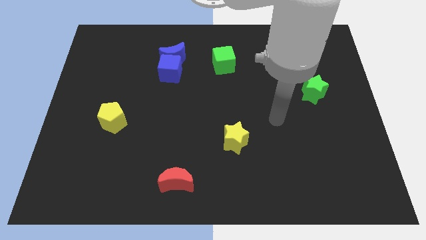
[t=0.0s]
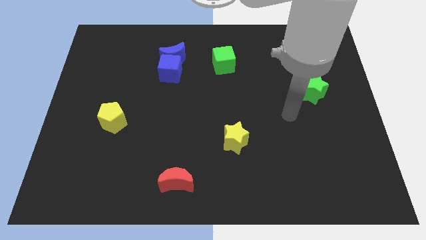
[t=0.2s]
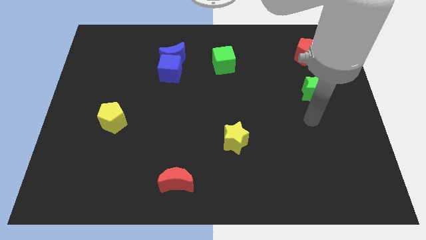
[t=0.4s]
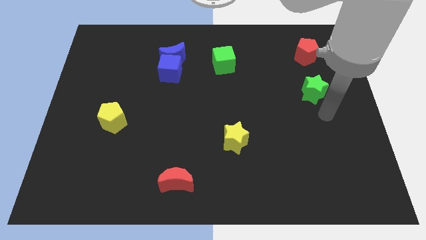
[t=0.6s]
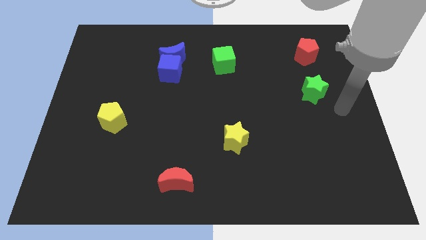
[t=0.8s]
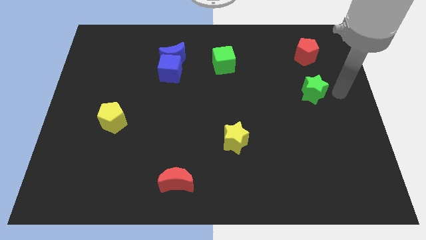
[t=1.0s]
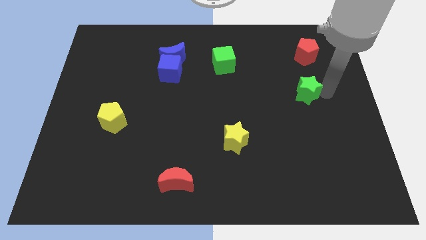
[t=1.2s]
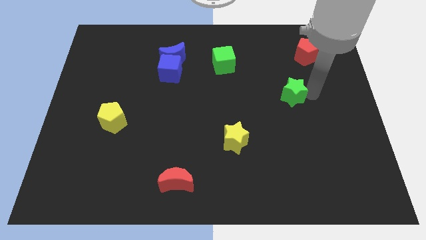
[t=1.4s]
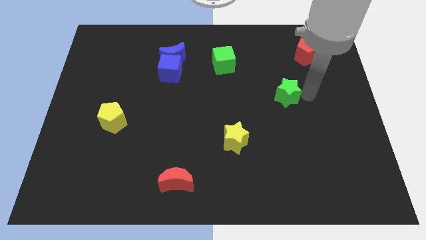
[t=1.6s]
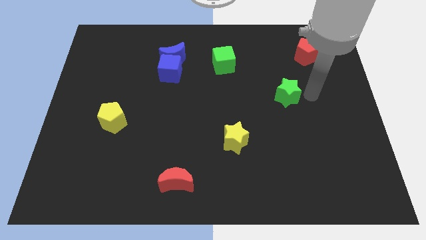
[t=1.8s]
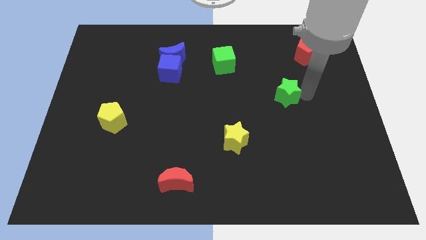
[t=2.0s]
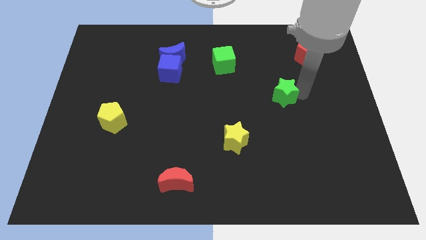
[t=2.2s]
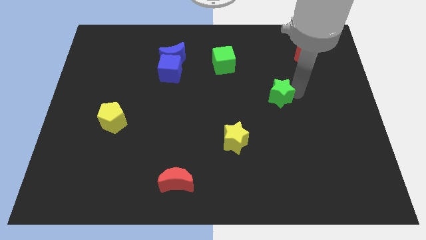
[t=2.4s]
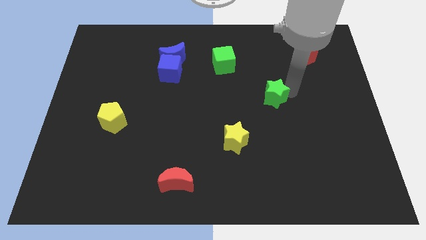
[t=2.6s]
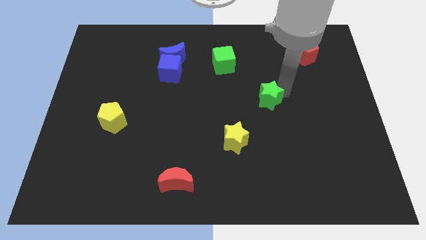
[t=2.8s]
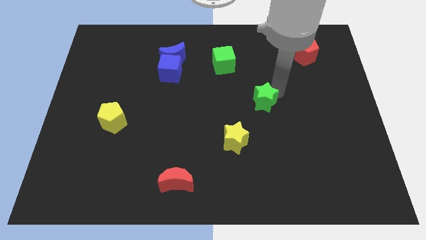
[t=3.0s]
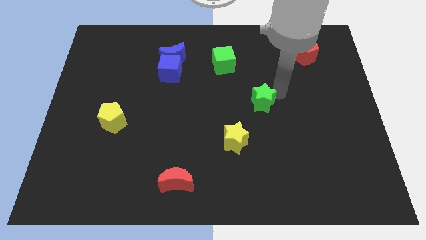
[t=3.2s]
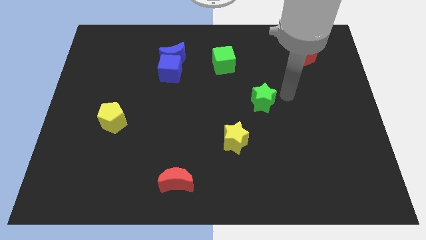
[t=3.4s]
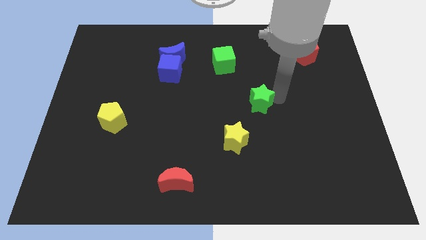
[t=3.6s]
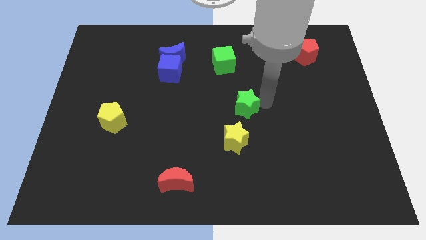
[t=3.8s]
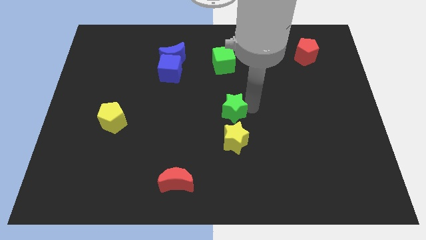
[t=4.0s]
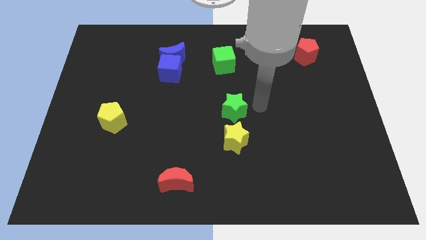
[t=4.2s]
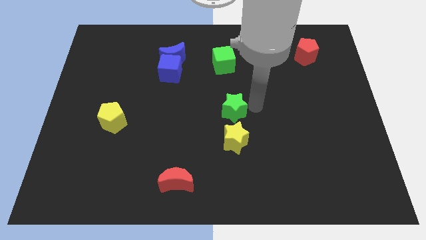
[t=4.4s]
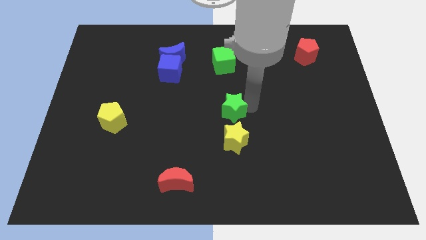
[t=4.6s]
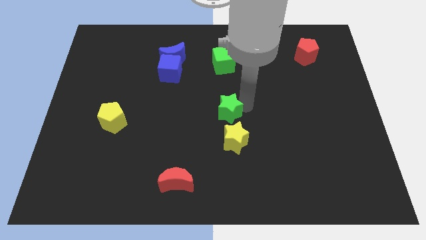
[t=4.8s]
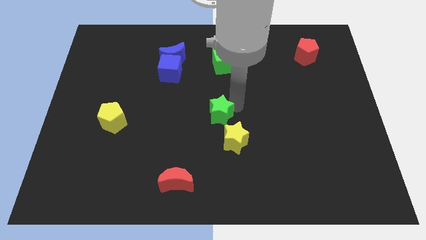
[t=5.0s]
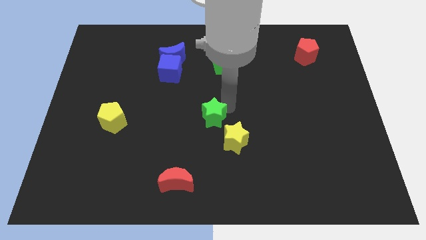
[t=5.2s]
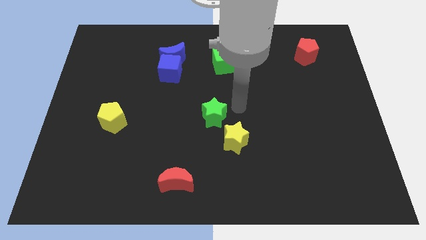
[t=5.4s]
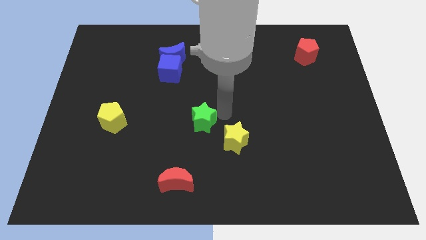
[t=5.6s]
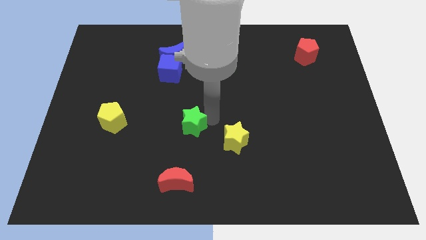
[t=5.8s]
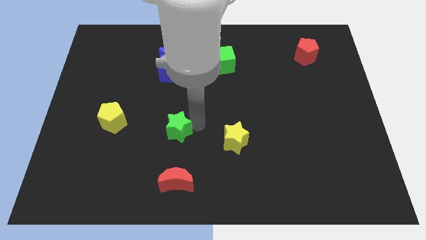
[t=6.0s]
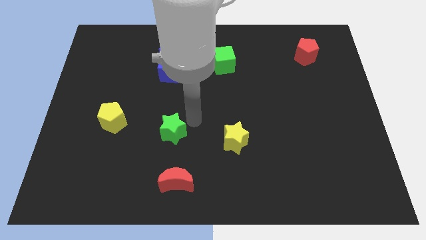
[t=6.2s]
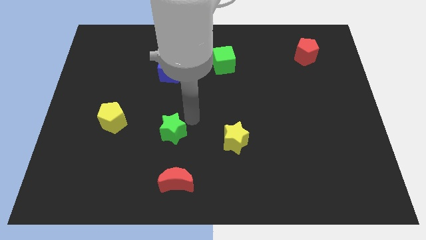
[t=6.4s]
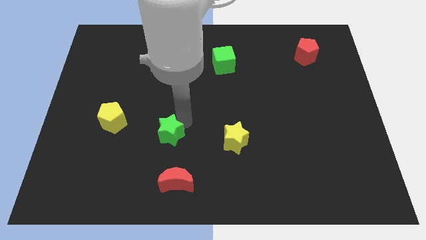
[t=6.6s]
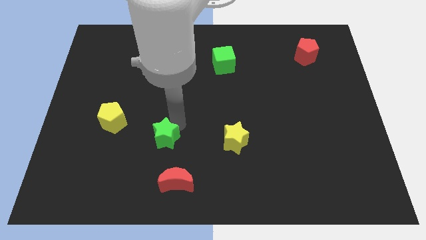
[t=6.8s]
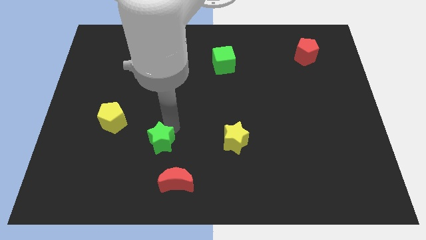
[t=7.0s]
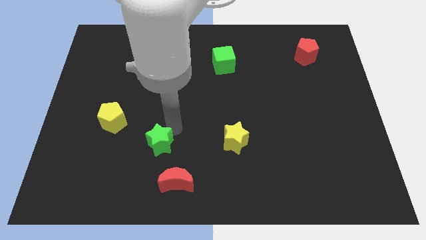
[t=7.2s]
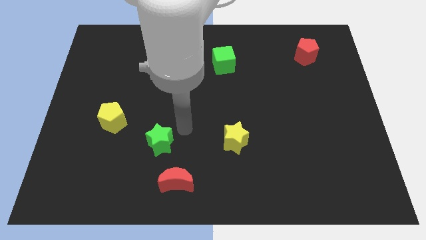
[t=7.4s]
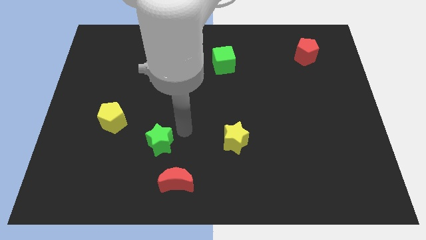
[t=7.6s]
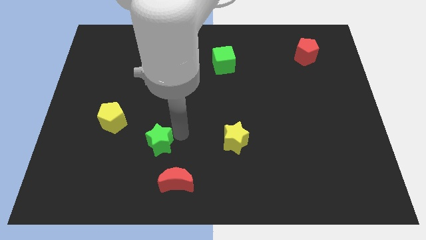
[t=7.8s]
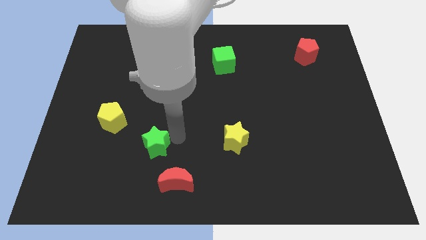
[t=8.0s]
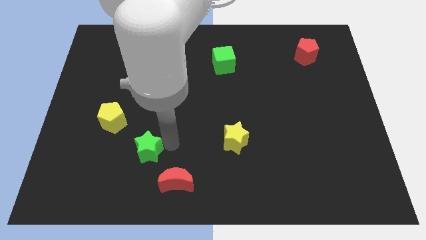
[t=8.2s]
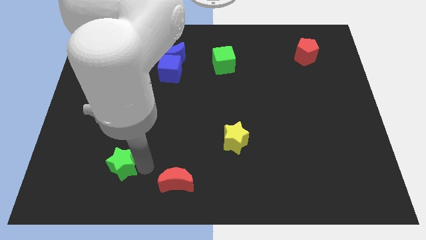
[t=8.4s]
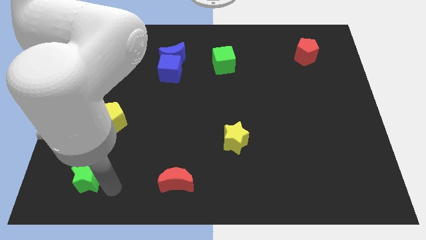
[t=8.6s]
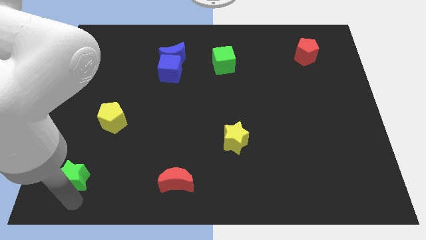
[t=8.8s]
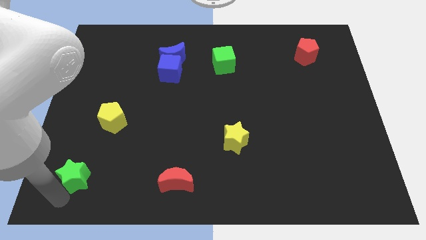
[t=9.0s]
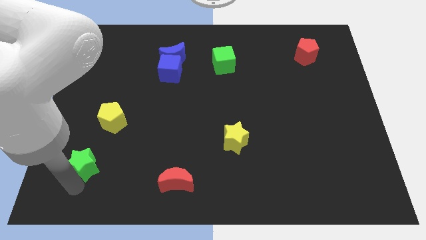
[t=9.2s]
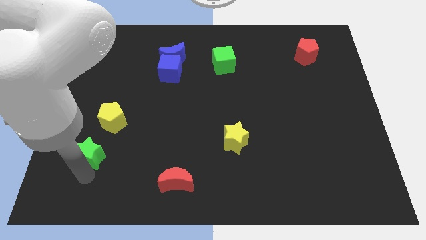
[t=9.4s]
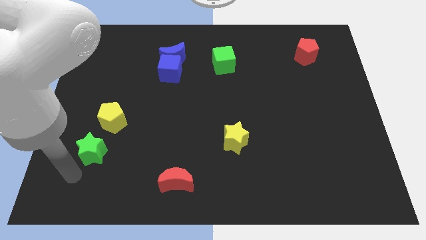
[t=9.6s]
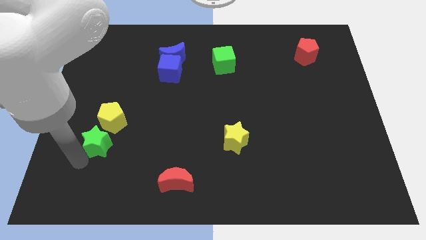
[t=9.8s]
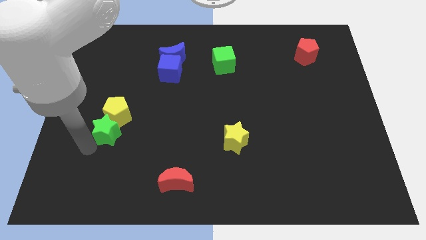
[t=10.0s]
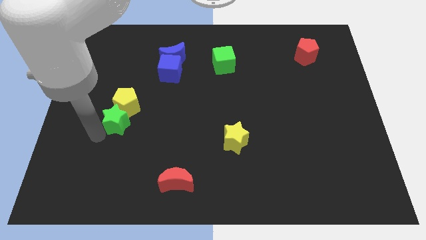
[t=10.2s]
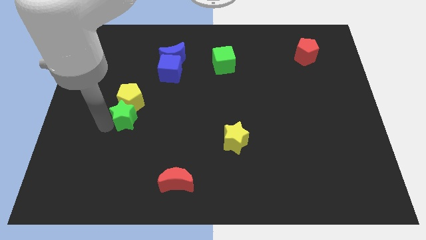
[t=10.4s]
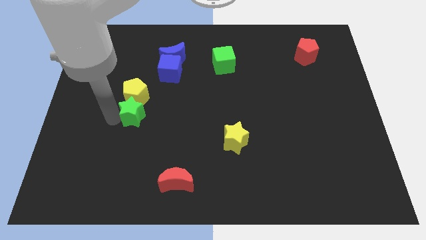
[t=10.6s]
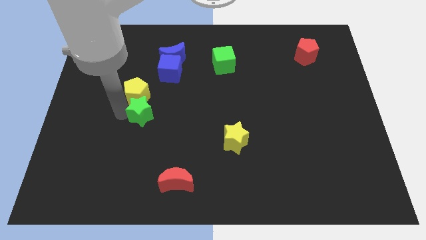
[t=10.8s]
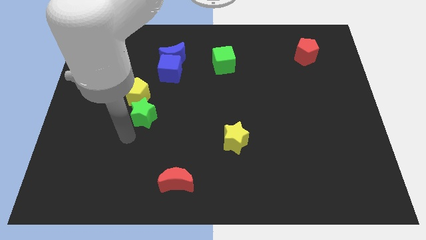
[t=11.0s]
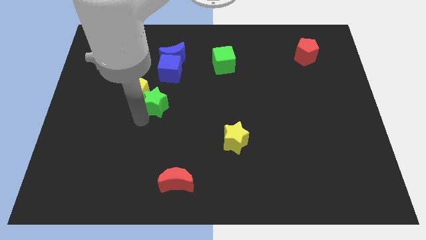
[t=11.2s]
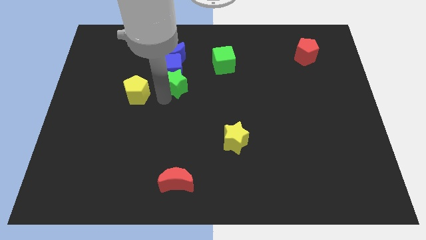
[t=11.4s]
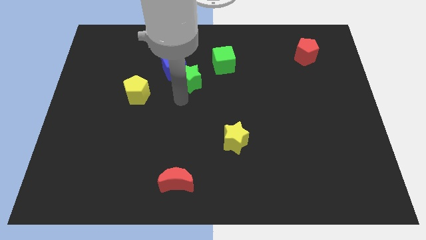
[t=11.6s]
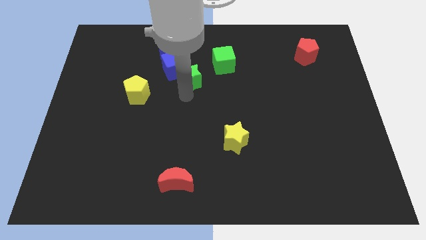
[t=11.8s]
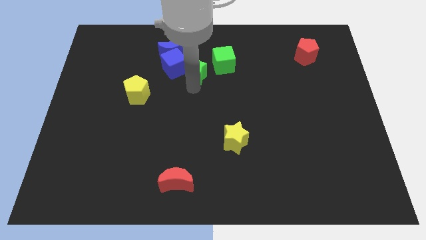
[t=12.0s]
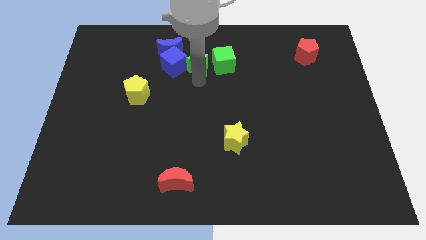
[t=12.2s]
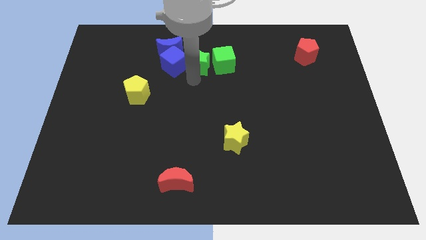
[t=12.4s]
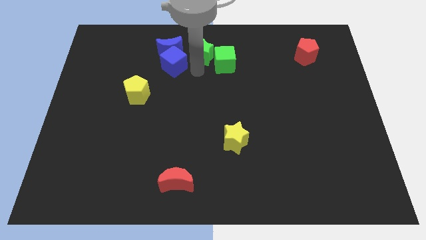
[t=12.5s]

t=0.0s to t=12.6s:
slide the green star to the top

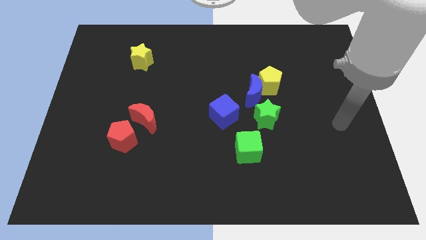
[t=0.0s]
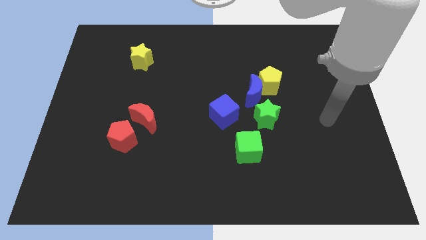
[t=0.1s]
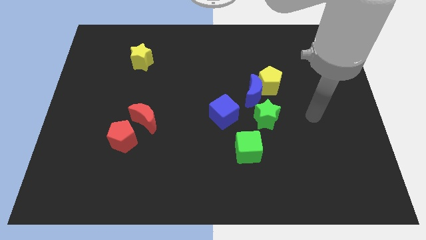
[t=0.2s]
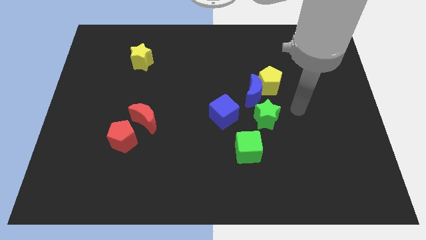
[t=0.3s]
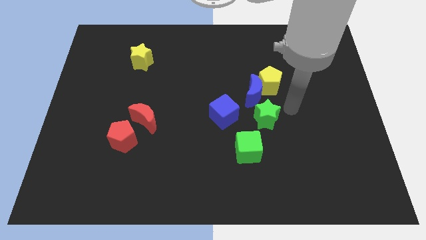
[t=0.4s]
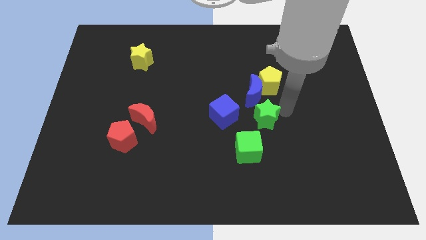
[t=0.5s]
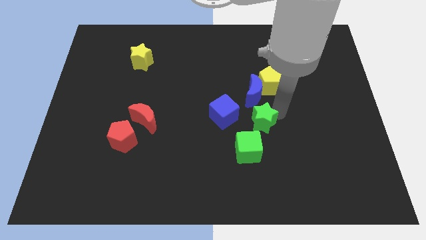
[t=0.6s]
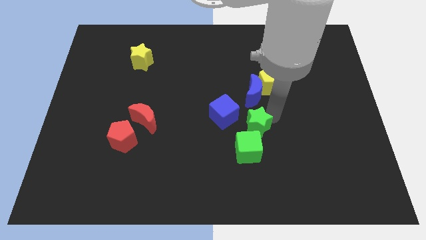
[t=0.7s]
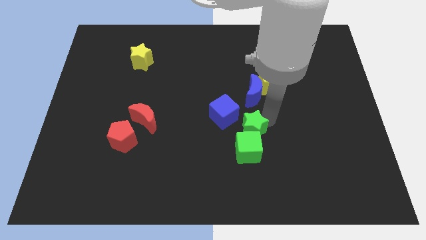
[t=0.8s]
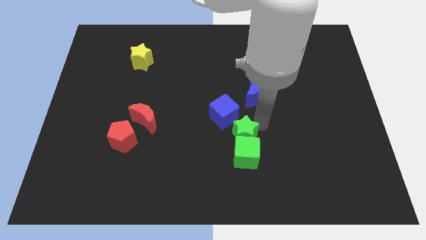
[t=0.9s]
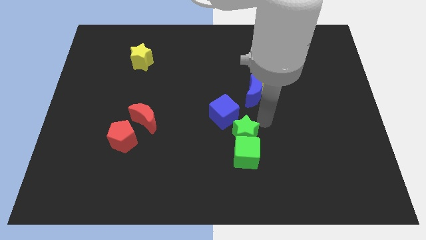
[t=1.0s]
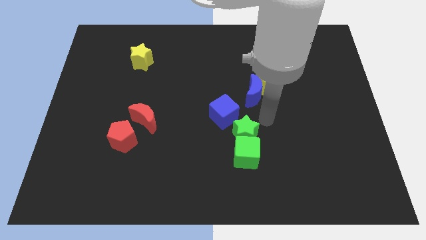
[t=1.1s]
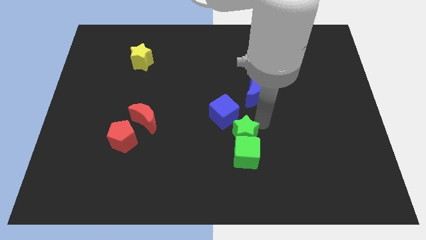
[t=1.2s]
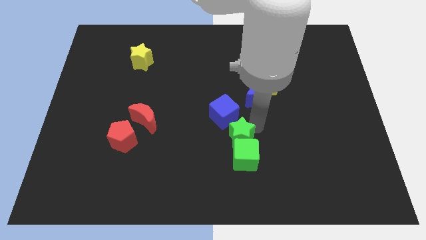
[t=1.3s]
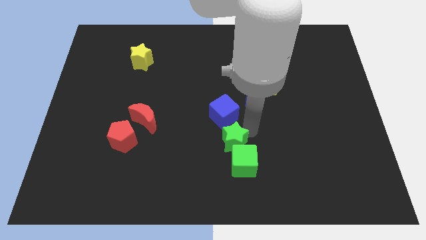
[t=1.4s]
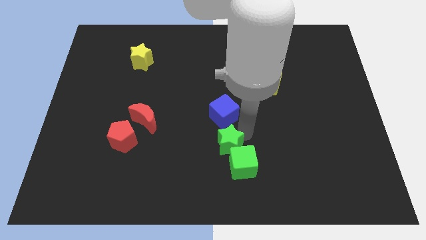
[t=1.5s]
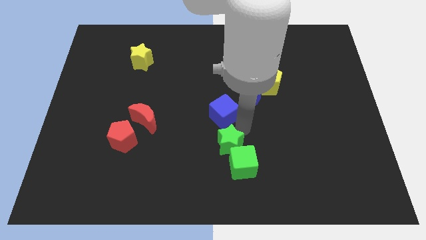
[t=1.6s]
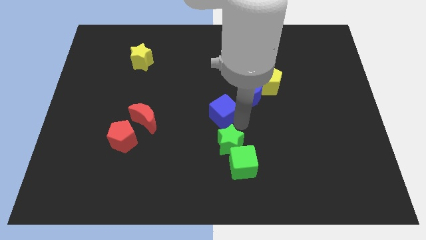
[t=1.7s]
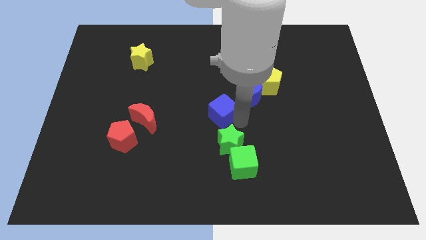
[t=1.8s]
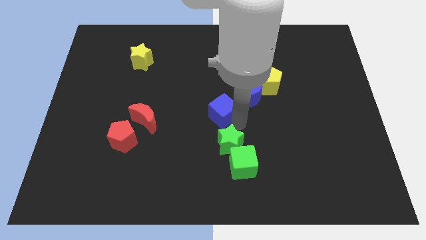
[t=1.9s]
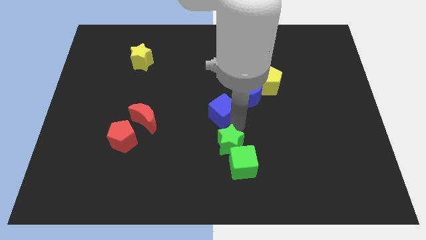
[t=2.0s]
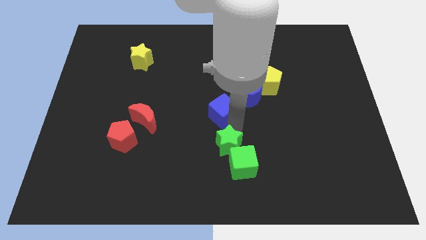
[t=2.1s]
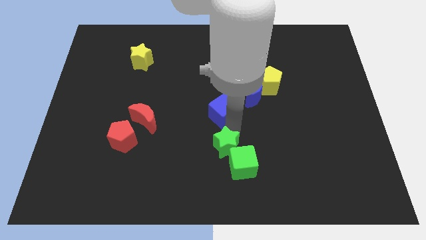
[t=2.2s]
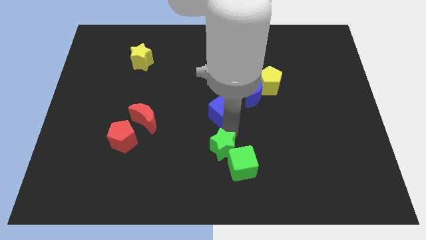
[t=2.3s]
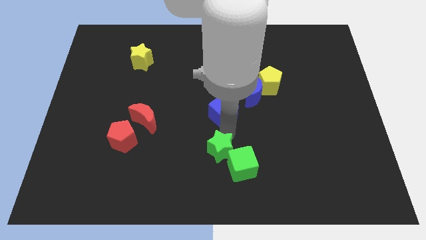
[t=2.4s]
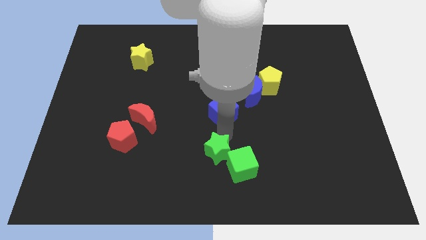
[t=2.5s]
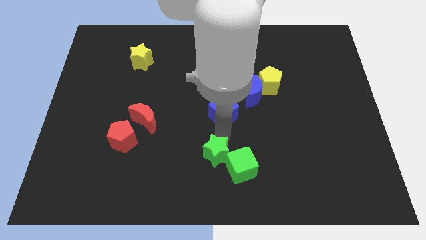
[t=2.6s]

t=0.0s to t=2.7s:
slide the green star to the bottom side
